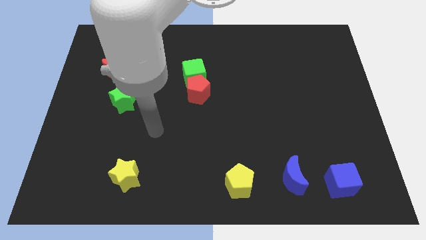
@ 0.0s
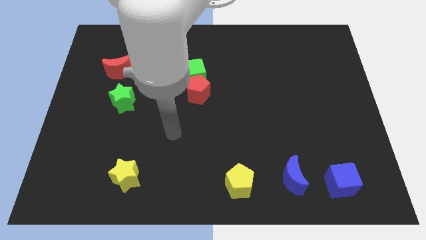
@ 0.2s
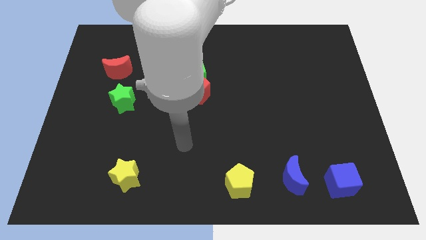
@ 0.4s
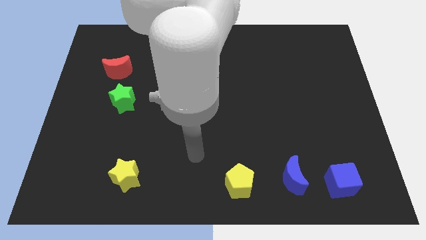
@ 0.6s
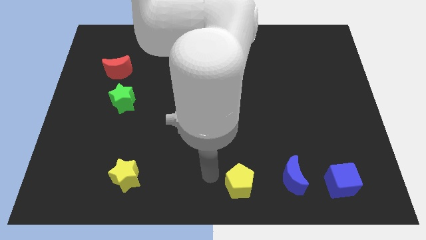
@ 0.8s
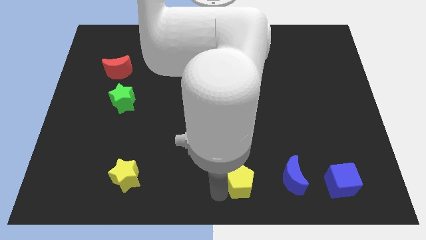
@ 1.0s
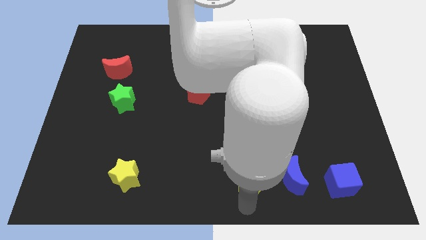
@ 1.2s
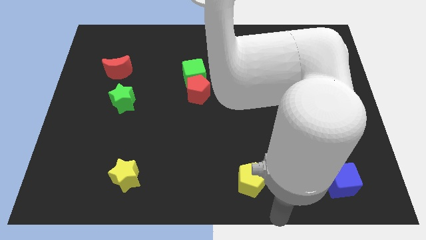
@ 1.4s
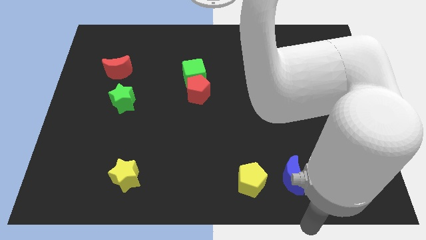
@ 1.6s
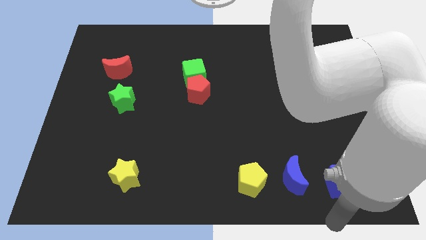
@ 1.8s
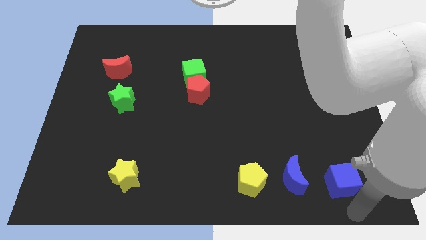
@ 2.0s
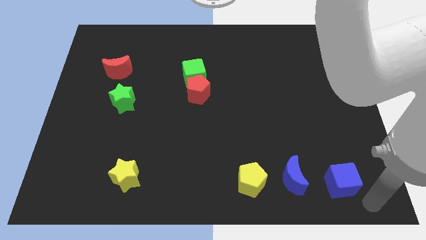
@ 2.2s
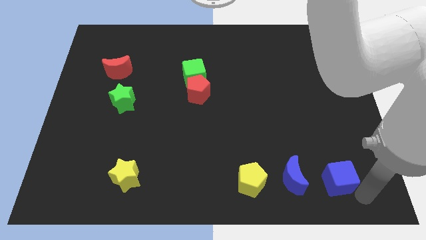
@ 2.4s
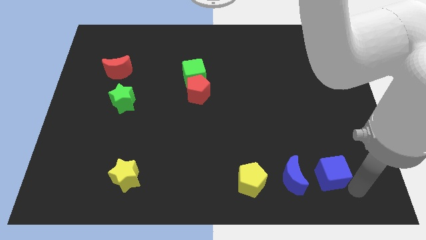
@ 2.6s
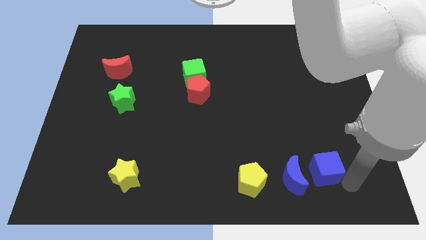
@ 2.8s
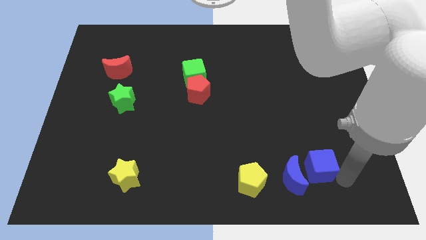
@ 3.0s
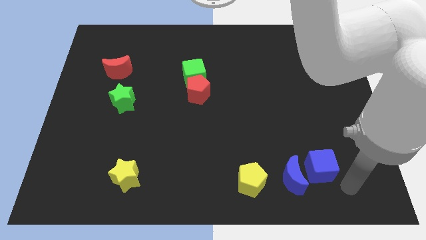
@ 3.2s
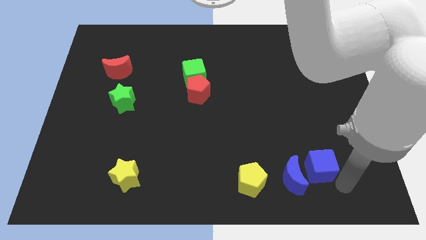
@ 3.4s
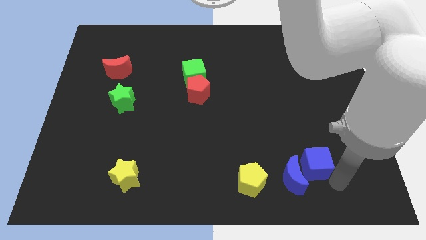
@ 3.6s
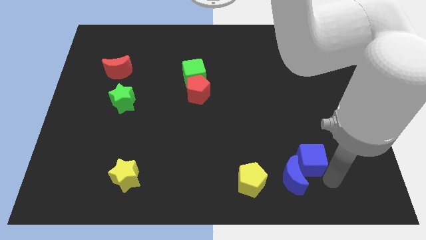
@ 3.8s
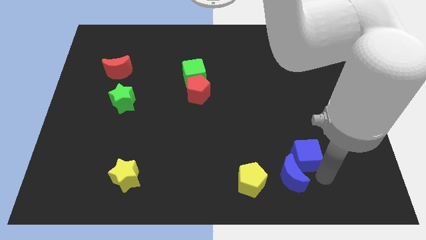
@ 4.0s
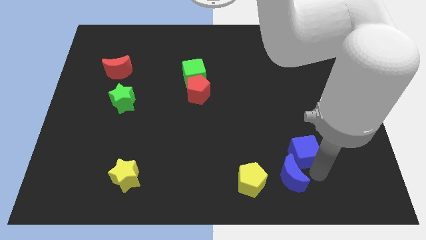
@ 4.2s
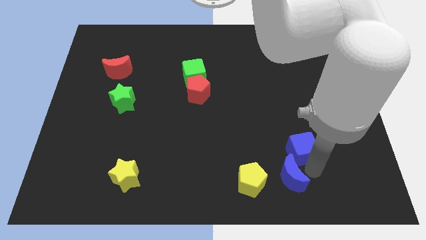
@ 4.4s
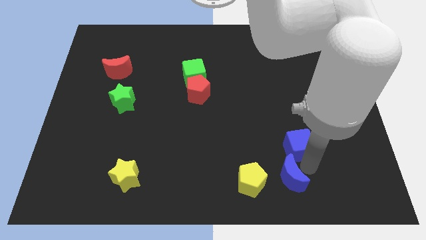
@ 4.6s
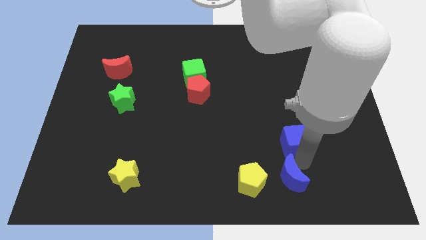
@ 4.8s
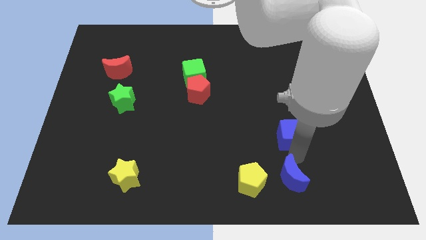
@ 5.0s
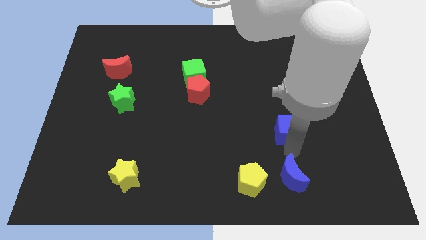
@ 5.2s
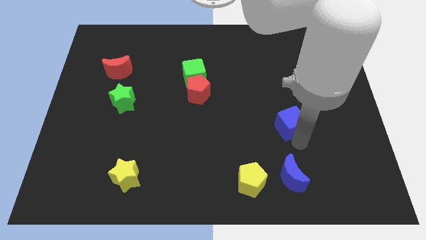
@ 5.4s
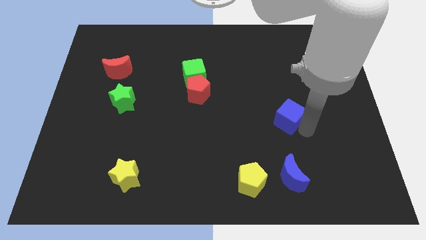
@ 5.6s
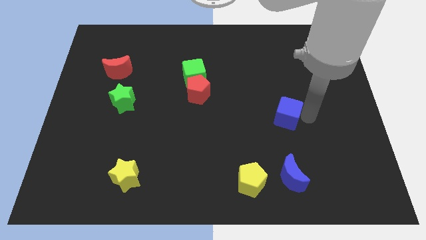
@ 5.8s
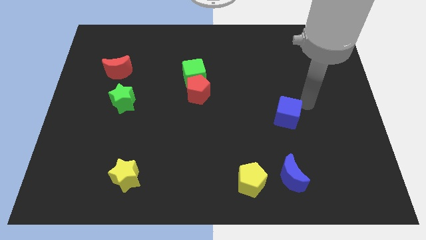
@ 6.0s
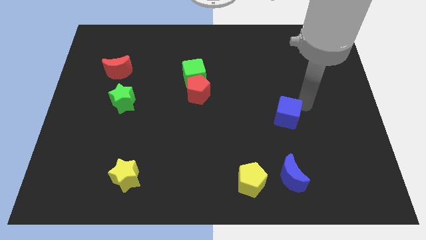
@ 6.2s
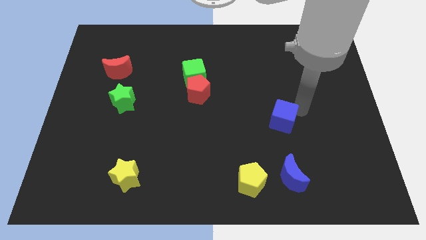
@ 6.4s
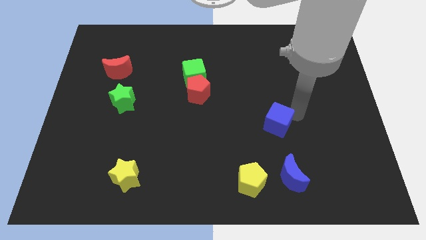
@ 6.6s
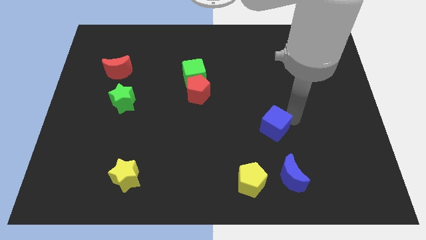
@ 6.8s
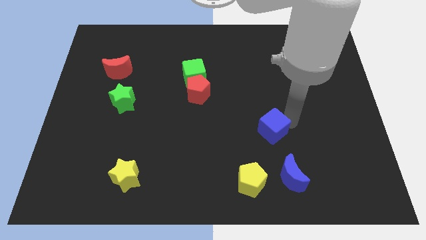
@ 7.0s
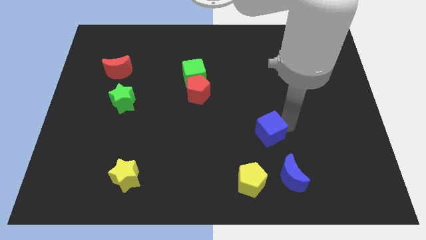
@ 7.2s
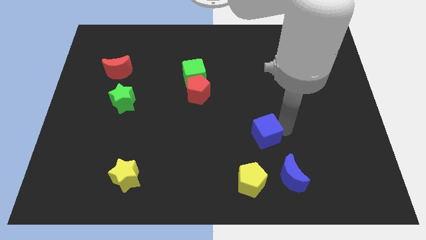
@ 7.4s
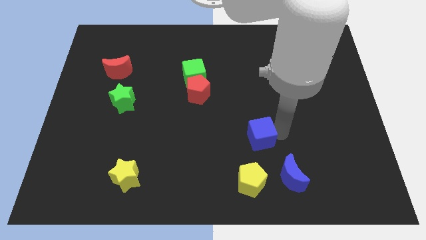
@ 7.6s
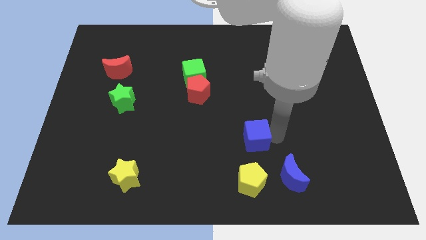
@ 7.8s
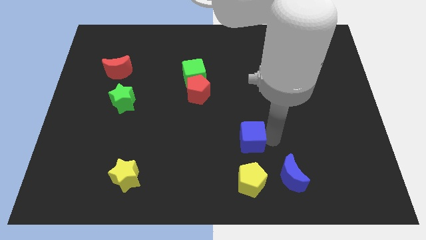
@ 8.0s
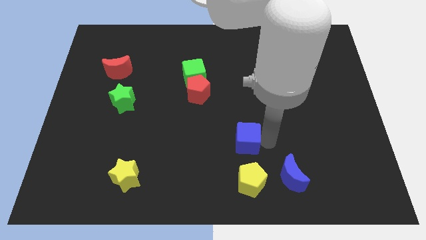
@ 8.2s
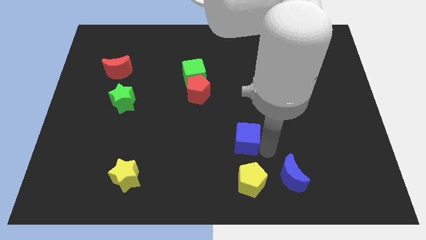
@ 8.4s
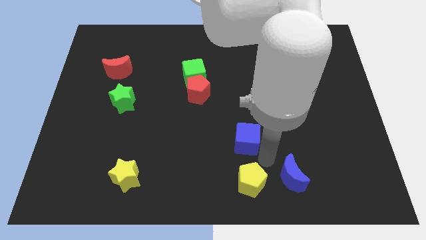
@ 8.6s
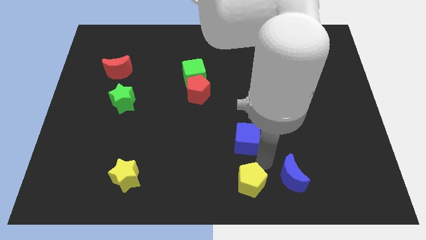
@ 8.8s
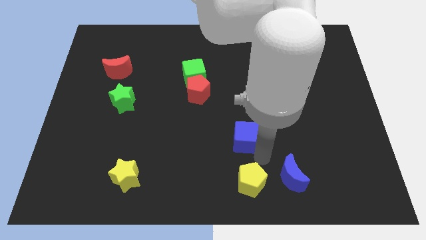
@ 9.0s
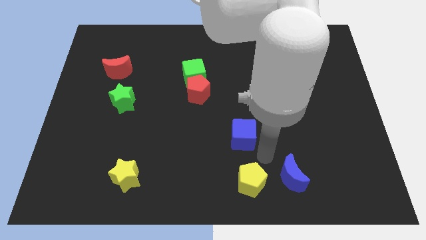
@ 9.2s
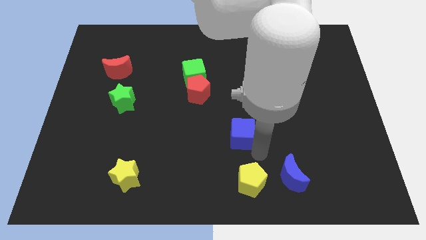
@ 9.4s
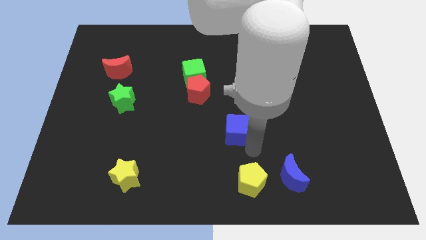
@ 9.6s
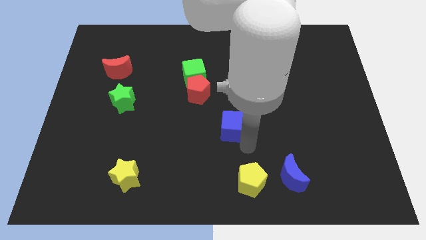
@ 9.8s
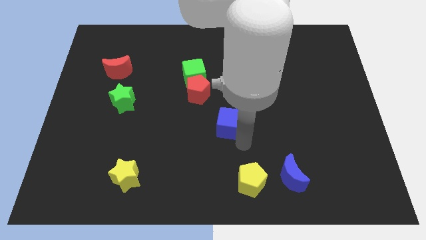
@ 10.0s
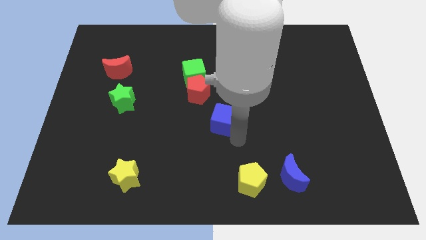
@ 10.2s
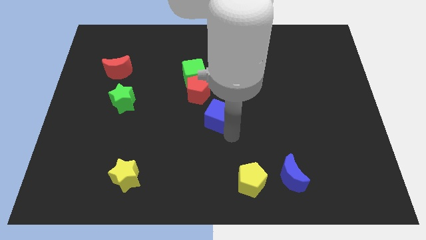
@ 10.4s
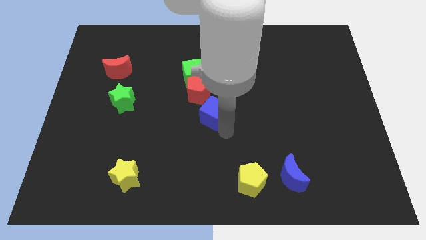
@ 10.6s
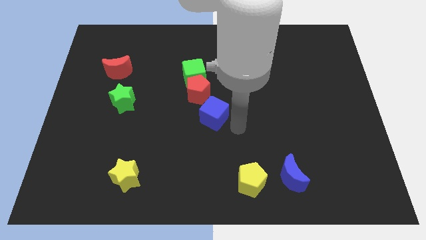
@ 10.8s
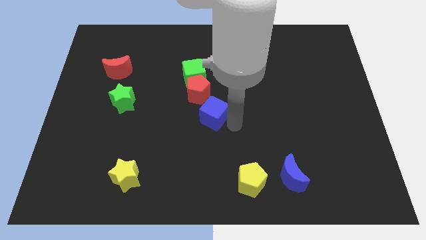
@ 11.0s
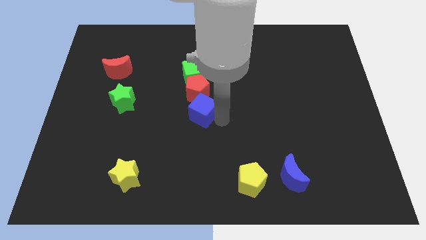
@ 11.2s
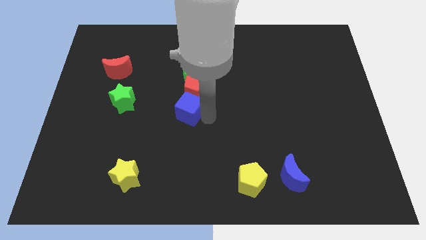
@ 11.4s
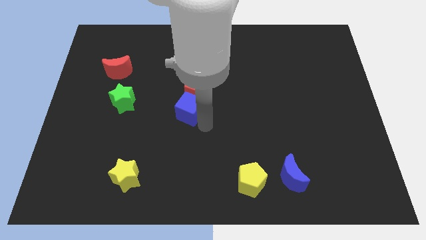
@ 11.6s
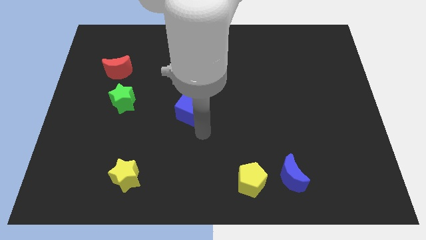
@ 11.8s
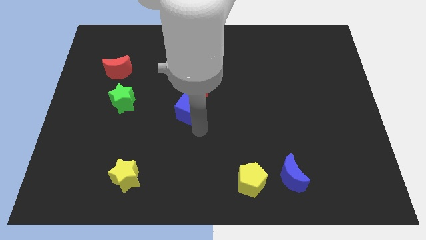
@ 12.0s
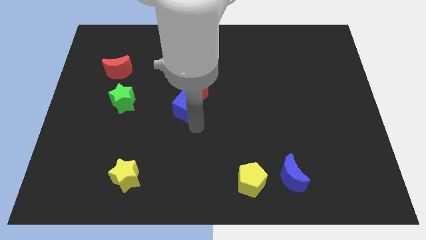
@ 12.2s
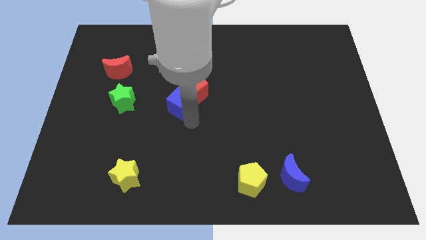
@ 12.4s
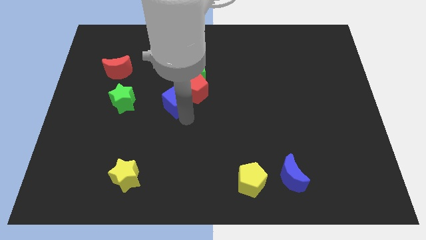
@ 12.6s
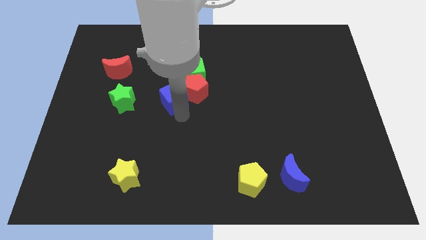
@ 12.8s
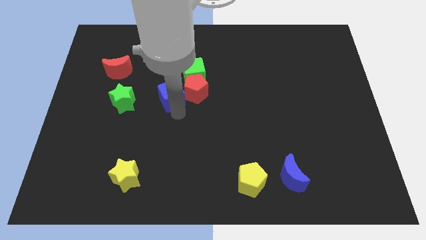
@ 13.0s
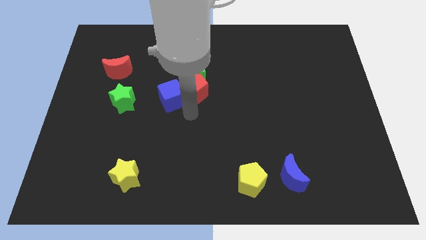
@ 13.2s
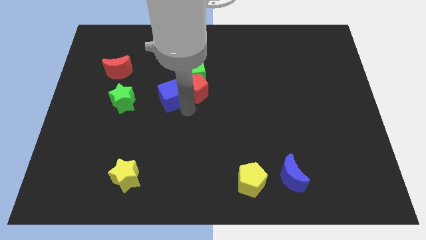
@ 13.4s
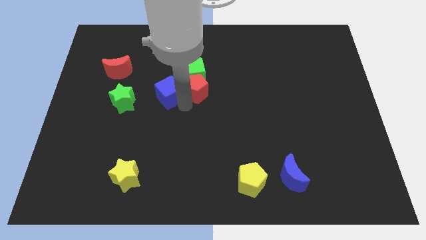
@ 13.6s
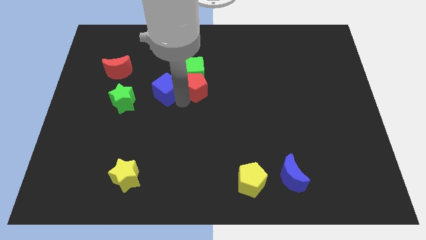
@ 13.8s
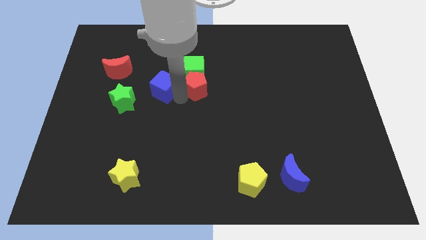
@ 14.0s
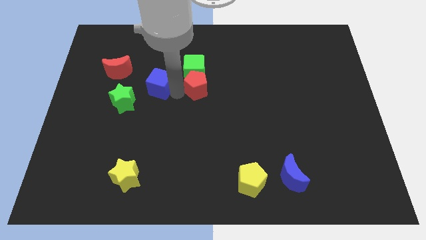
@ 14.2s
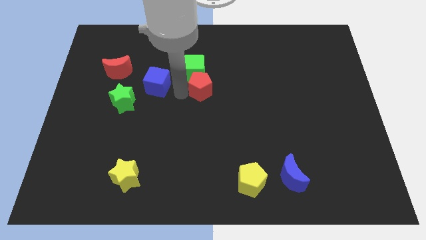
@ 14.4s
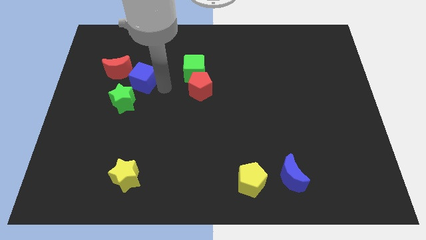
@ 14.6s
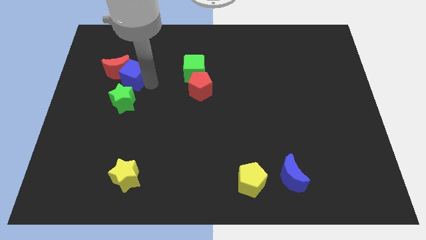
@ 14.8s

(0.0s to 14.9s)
put the blue cube close to the red moon

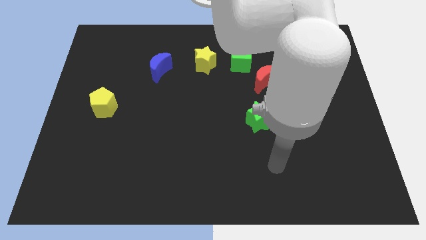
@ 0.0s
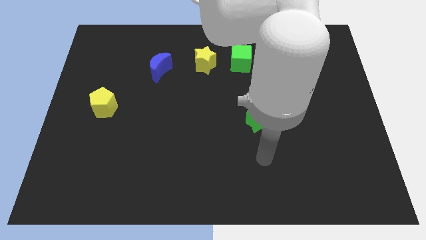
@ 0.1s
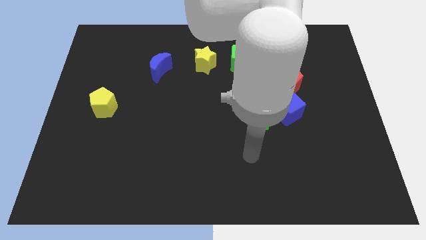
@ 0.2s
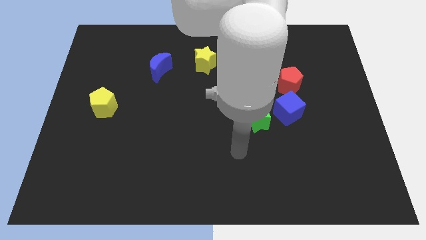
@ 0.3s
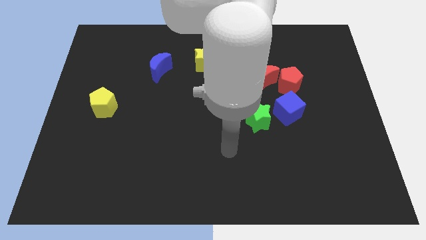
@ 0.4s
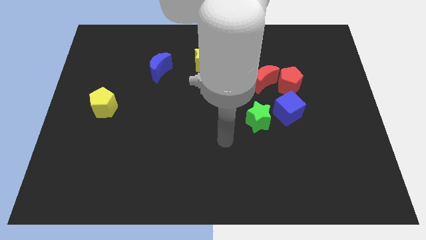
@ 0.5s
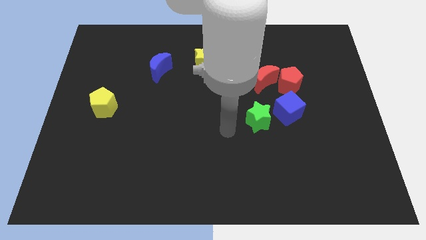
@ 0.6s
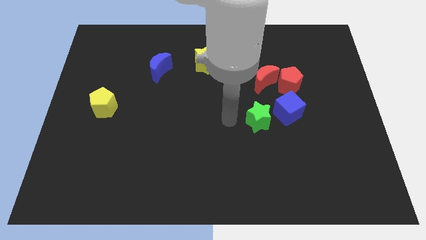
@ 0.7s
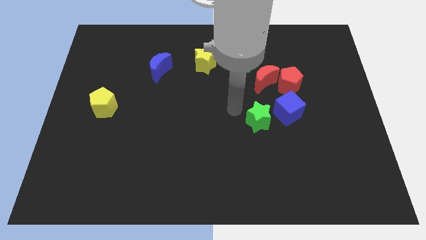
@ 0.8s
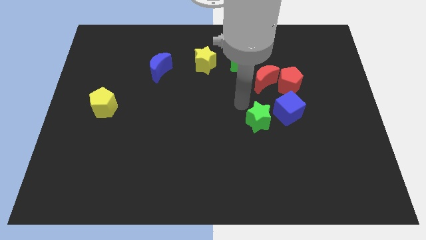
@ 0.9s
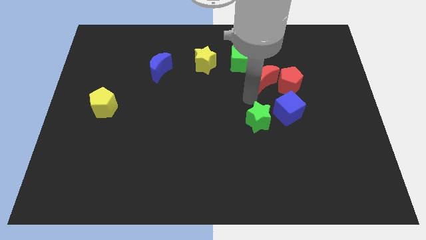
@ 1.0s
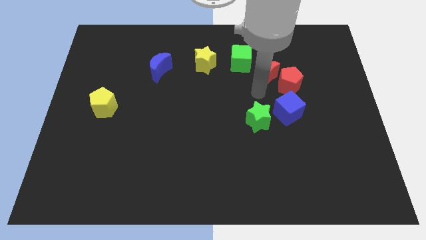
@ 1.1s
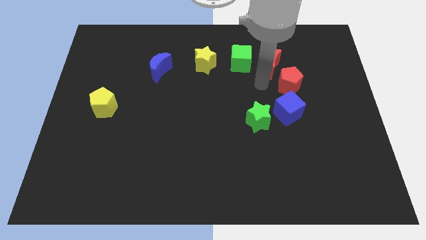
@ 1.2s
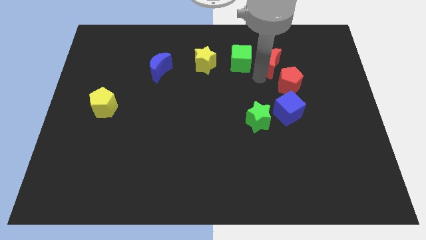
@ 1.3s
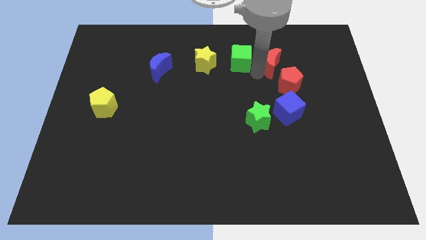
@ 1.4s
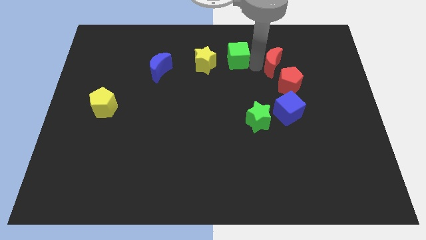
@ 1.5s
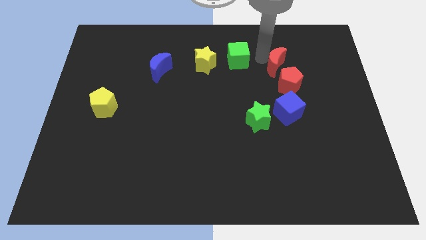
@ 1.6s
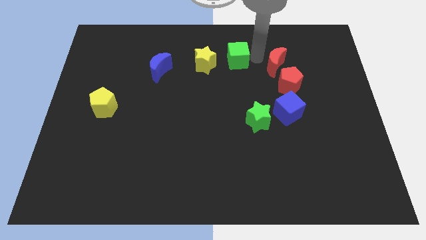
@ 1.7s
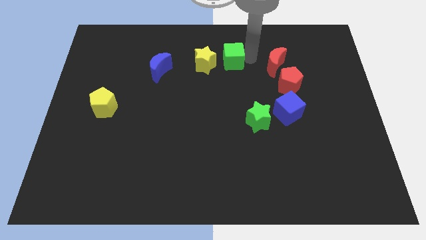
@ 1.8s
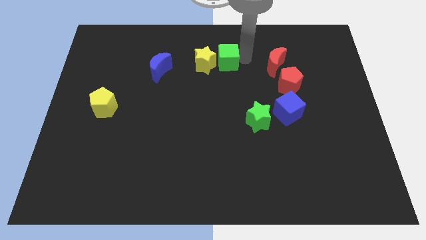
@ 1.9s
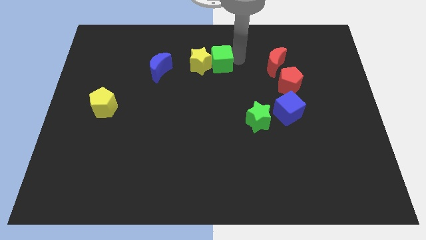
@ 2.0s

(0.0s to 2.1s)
put the green cube close to the yellow star
